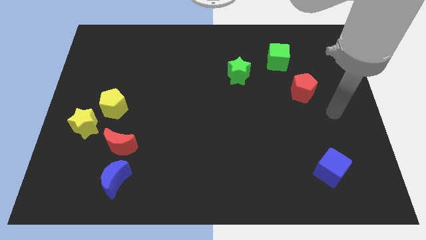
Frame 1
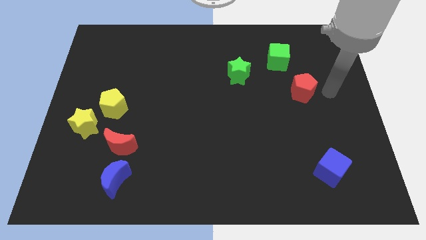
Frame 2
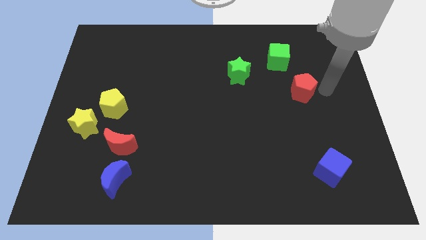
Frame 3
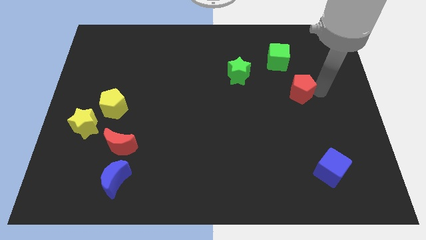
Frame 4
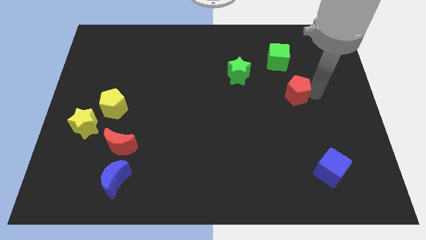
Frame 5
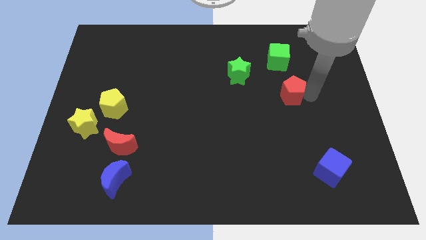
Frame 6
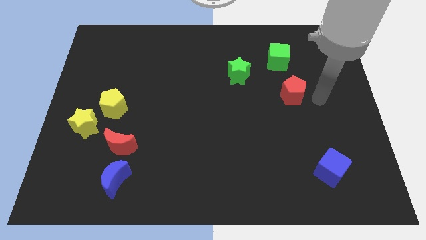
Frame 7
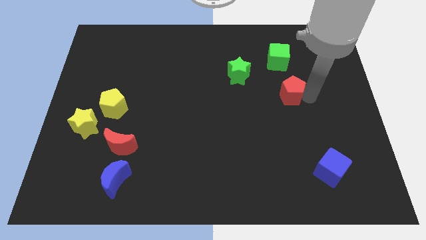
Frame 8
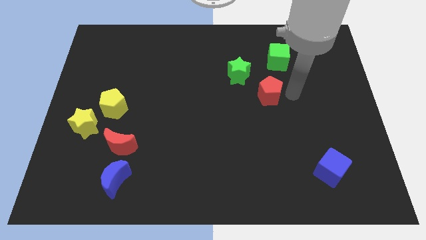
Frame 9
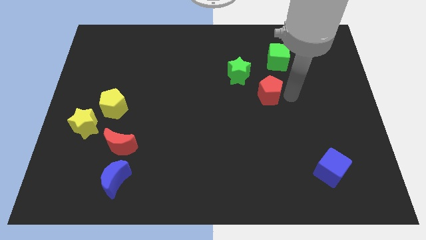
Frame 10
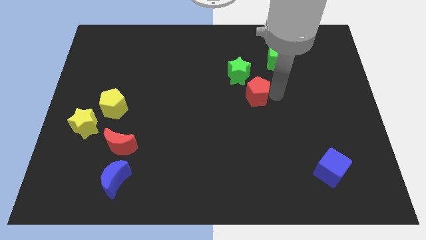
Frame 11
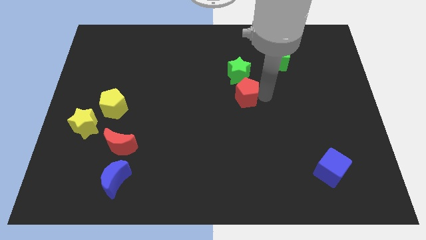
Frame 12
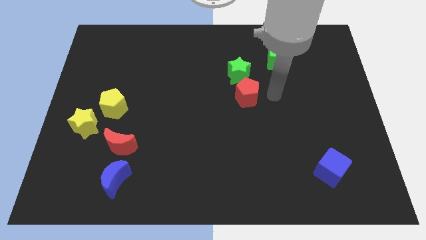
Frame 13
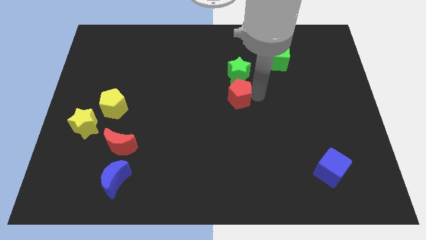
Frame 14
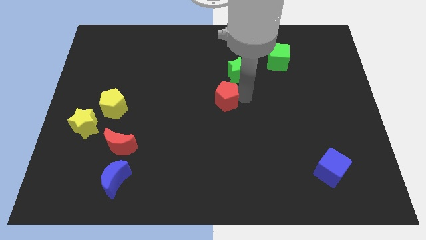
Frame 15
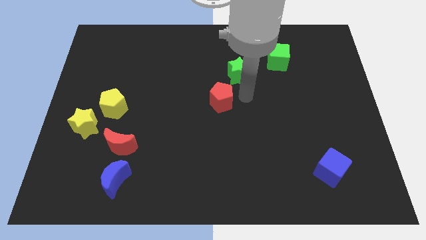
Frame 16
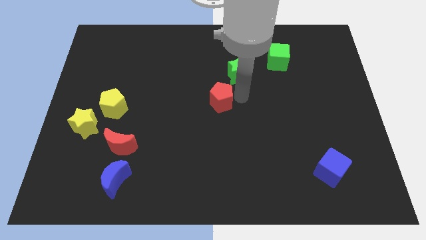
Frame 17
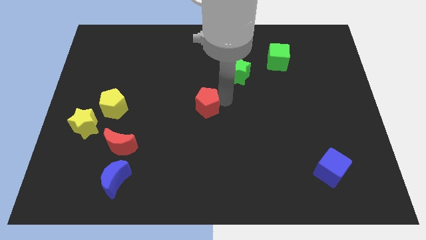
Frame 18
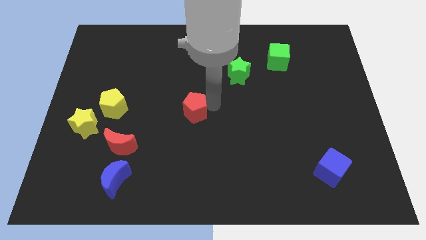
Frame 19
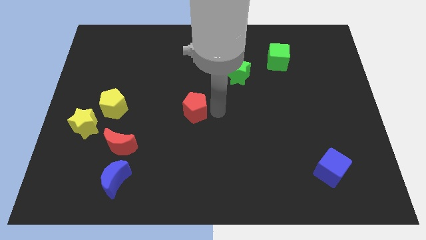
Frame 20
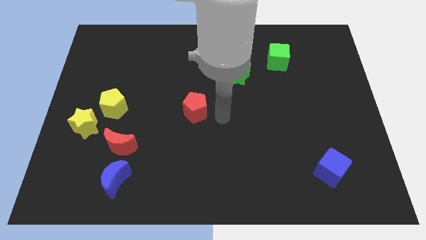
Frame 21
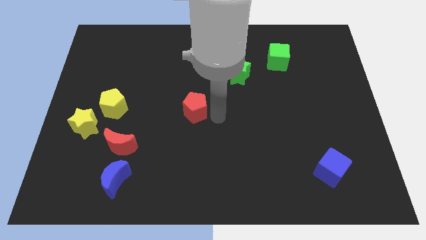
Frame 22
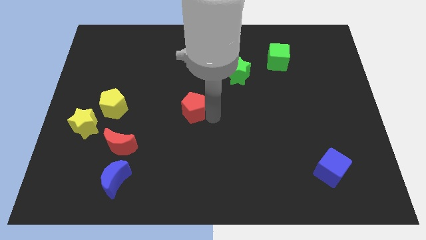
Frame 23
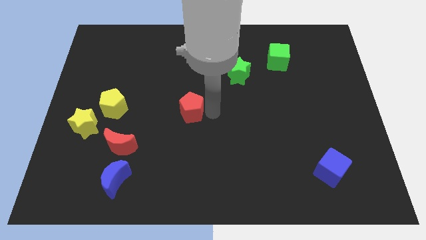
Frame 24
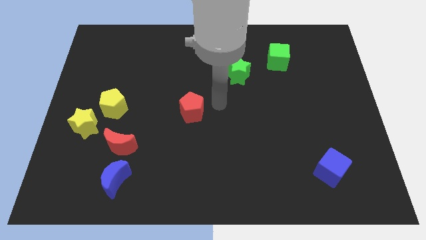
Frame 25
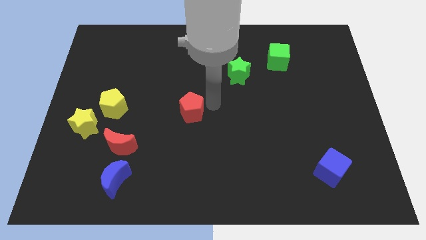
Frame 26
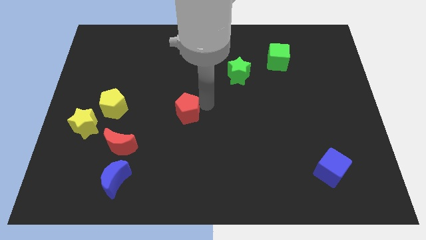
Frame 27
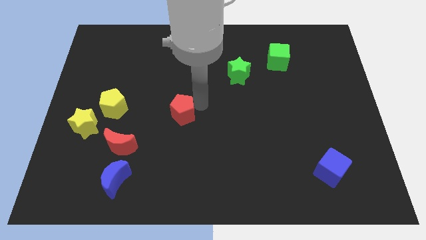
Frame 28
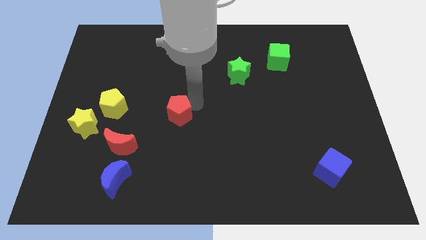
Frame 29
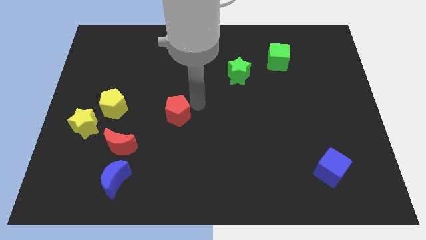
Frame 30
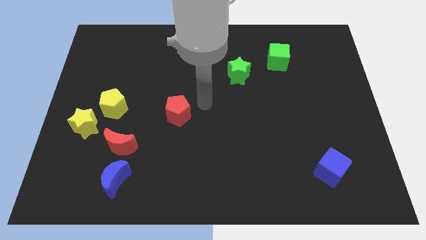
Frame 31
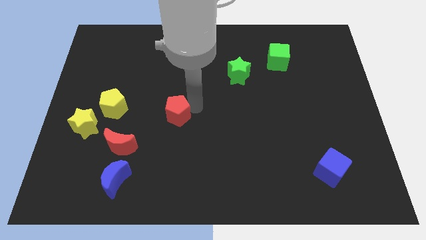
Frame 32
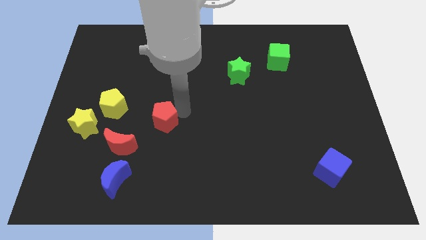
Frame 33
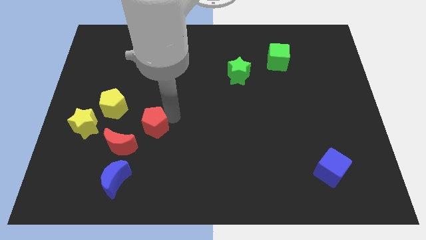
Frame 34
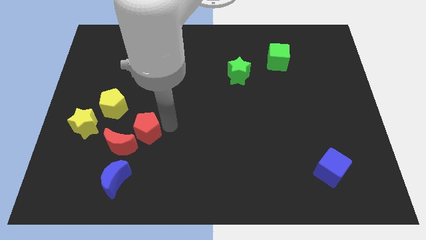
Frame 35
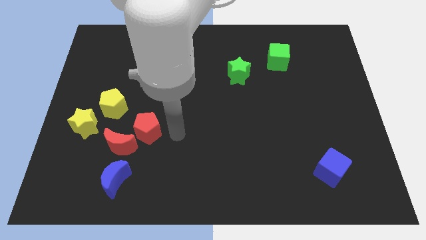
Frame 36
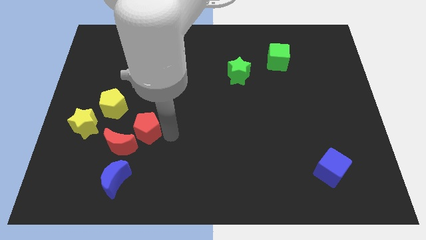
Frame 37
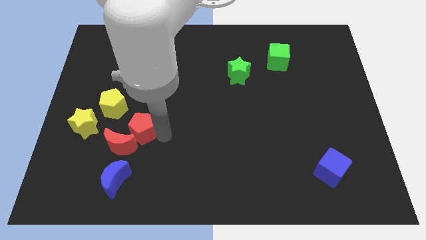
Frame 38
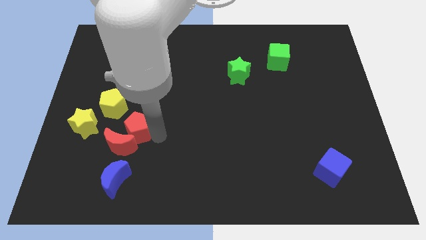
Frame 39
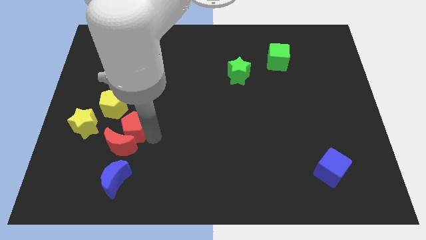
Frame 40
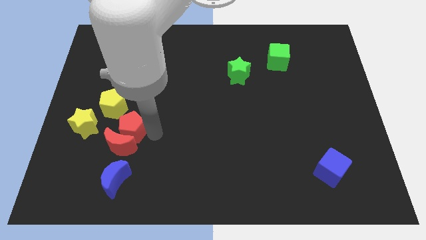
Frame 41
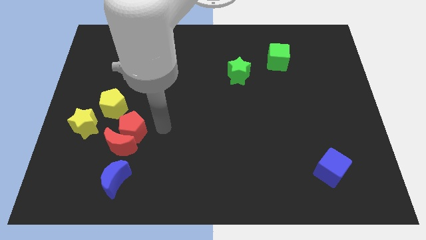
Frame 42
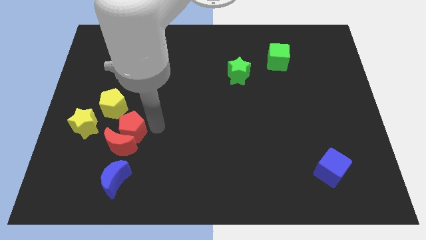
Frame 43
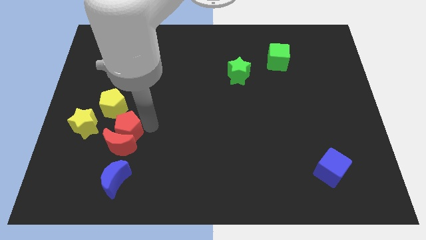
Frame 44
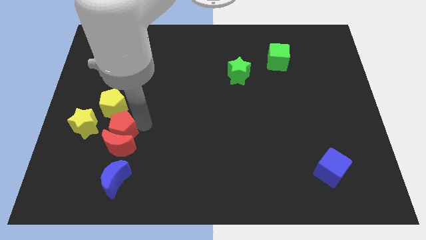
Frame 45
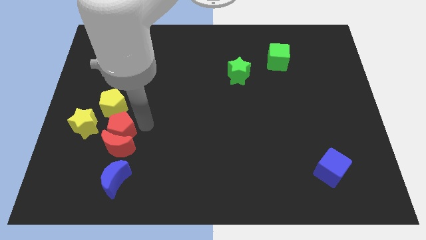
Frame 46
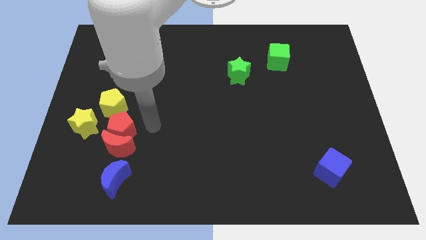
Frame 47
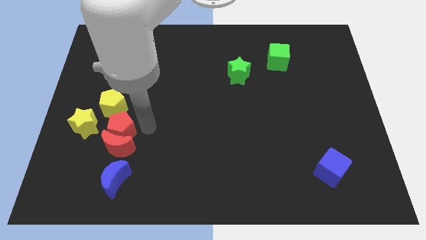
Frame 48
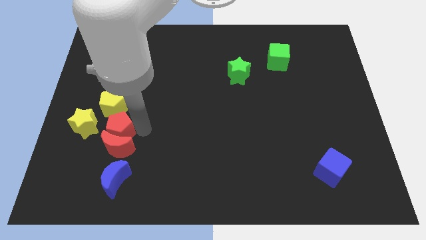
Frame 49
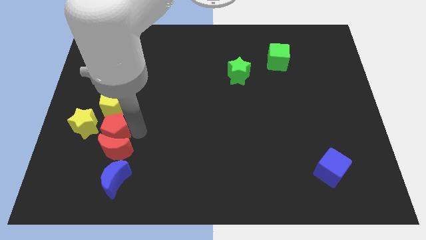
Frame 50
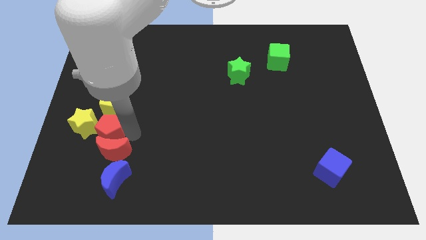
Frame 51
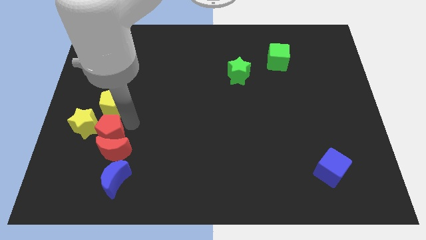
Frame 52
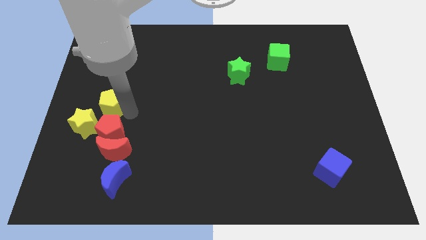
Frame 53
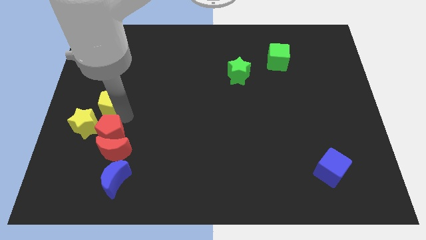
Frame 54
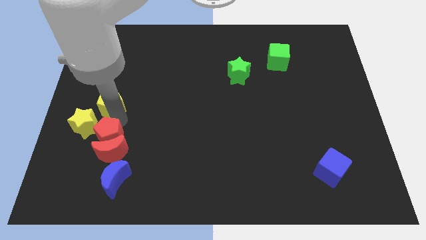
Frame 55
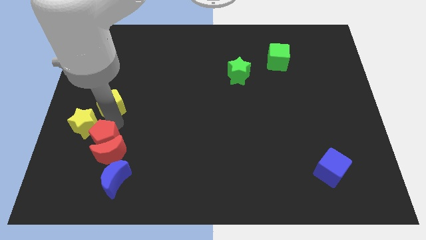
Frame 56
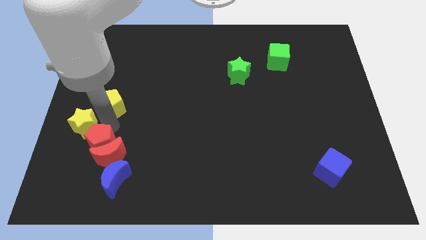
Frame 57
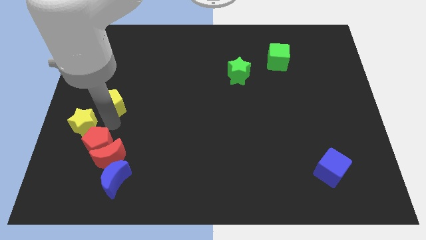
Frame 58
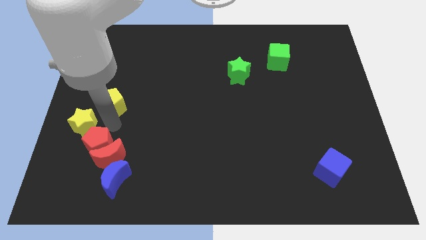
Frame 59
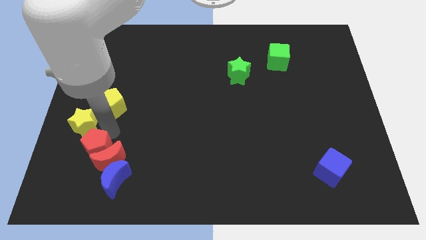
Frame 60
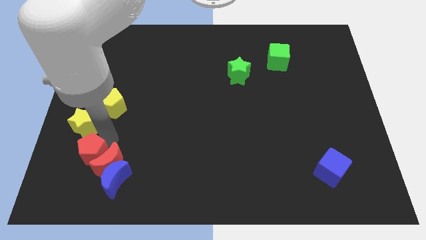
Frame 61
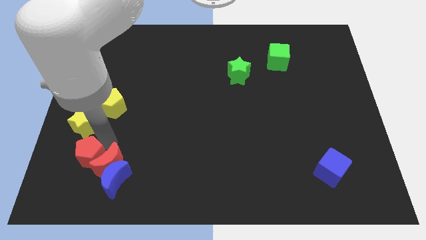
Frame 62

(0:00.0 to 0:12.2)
put the red pentagon to the bottom left of the red moon
